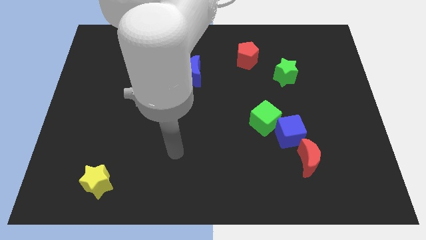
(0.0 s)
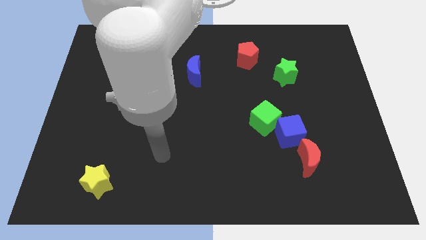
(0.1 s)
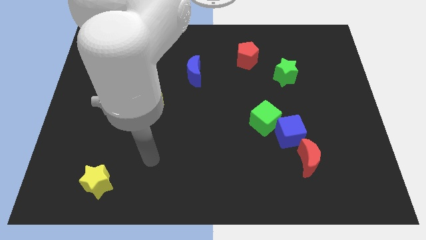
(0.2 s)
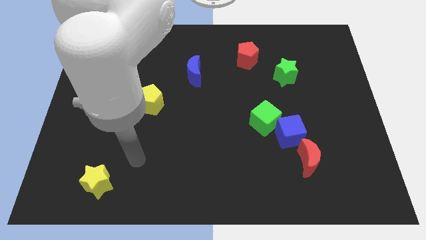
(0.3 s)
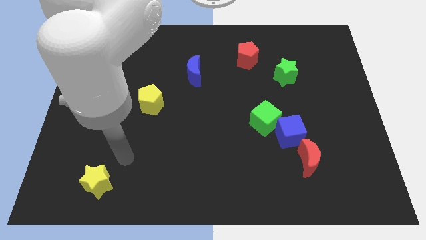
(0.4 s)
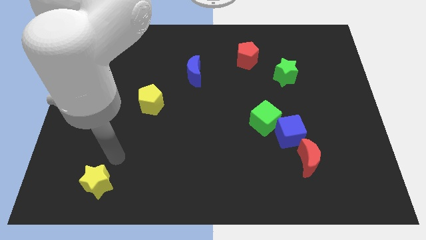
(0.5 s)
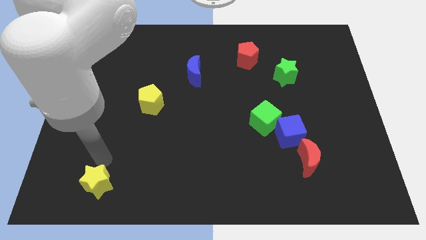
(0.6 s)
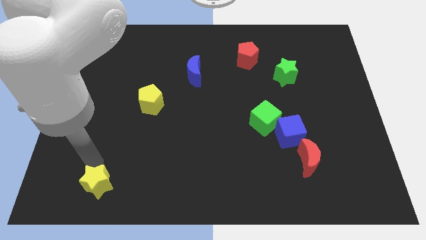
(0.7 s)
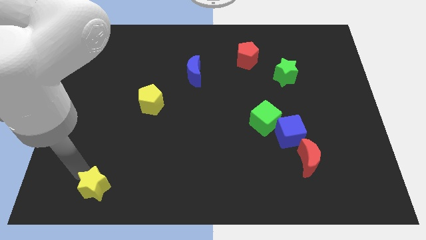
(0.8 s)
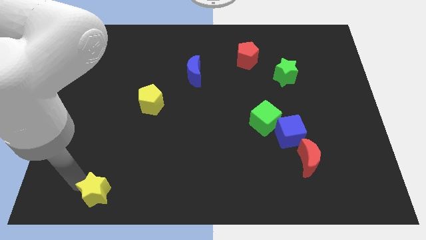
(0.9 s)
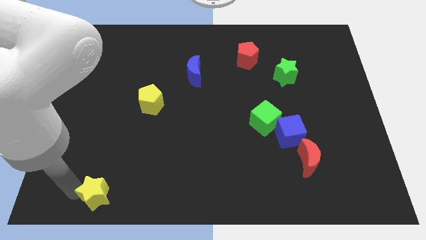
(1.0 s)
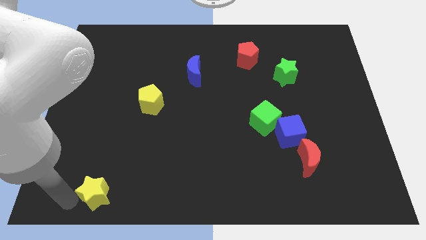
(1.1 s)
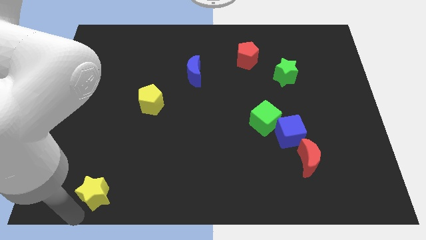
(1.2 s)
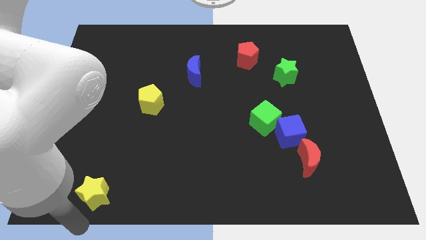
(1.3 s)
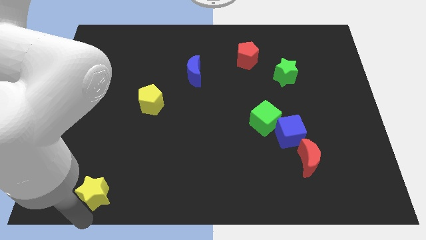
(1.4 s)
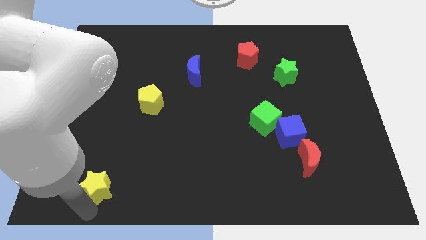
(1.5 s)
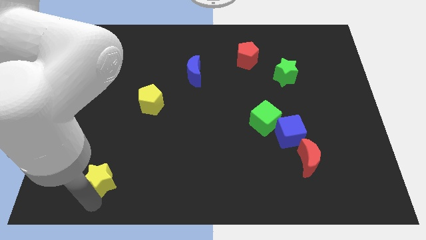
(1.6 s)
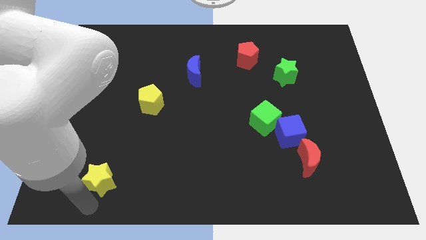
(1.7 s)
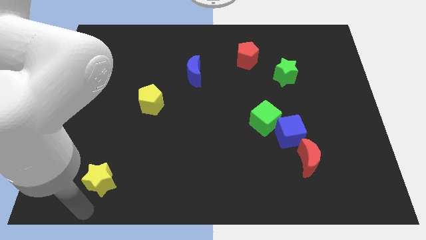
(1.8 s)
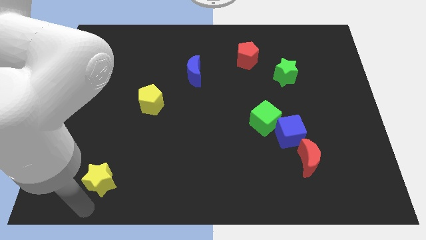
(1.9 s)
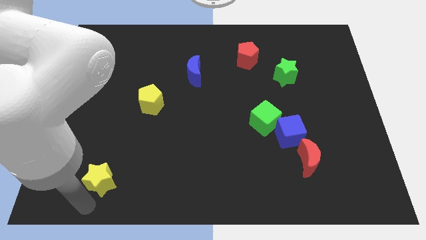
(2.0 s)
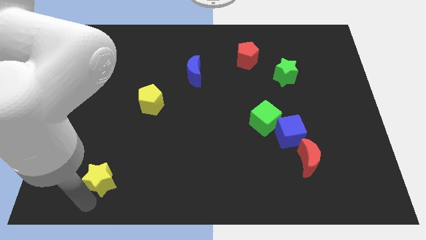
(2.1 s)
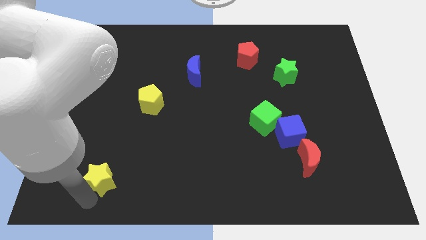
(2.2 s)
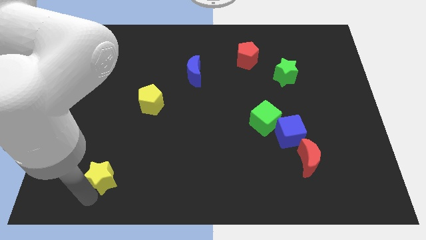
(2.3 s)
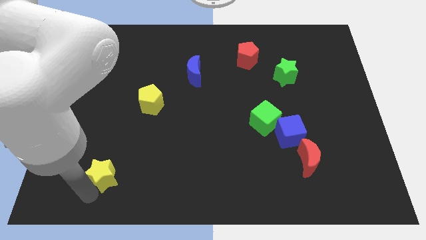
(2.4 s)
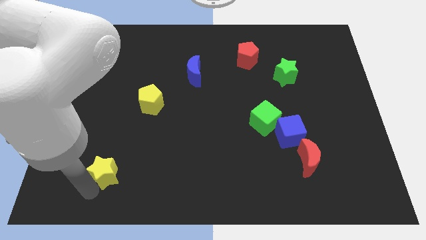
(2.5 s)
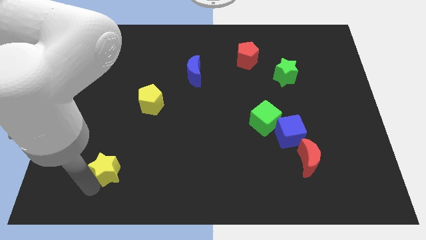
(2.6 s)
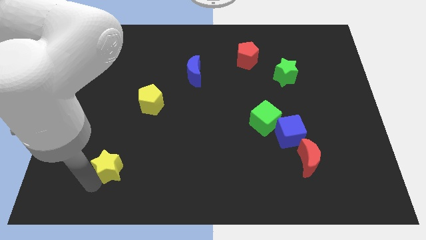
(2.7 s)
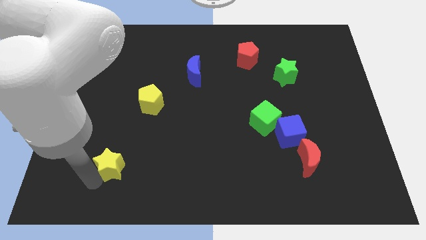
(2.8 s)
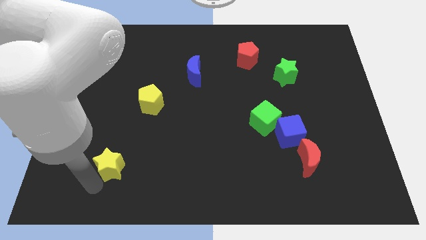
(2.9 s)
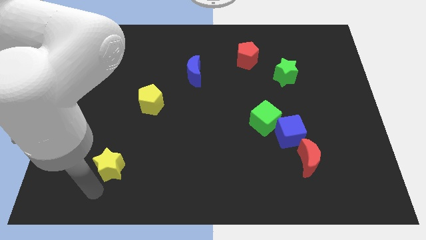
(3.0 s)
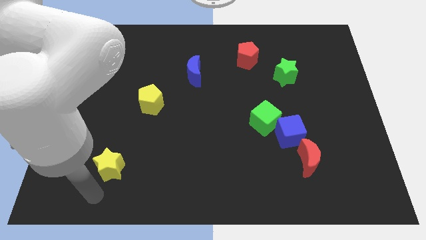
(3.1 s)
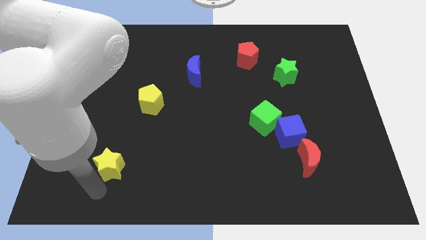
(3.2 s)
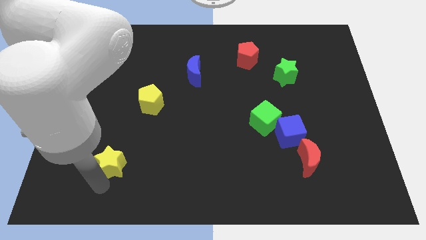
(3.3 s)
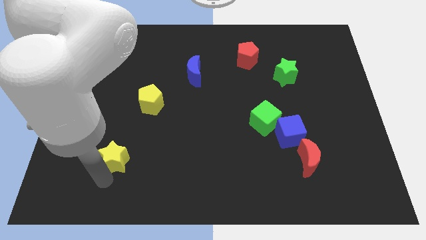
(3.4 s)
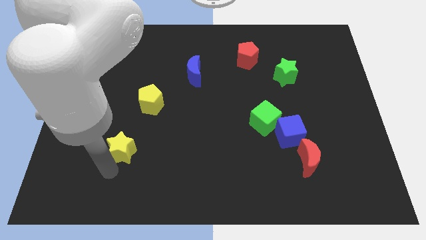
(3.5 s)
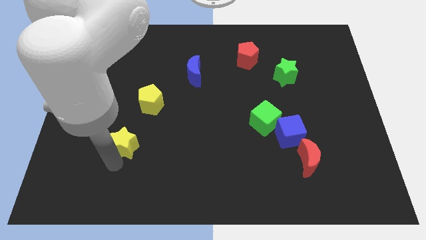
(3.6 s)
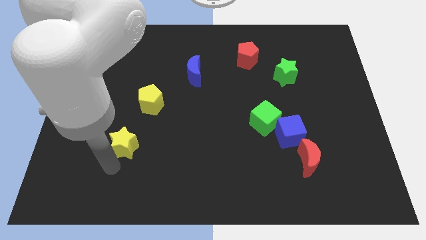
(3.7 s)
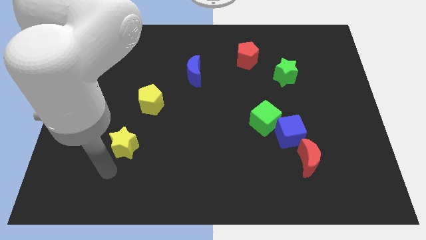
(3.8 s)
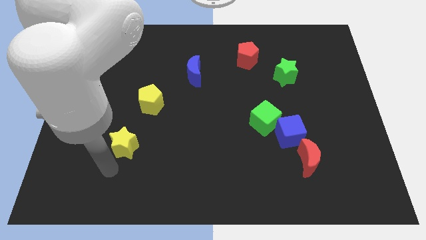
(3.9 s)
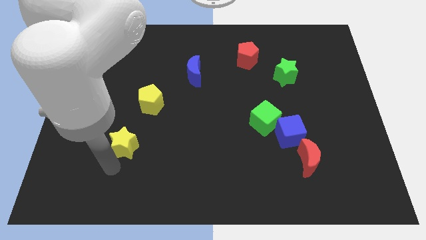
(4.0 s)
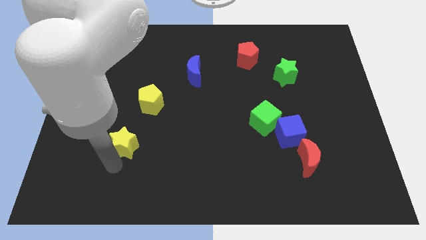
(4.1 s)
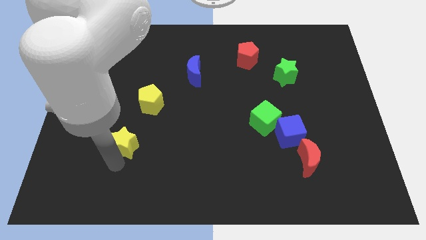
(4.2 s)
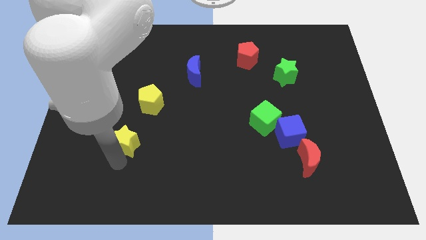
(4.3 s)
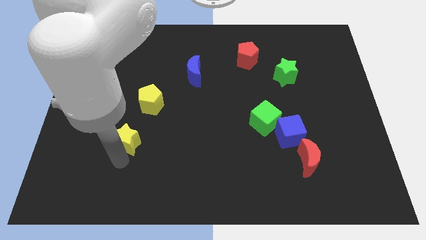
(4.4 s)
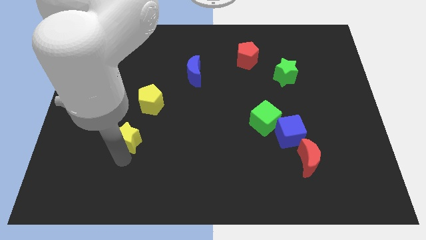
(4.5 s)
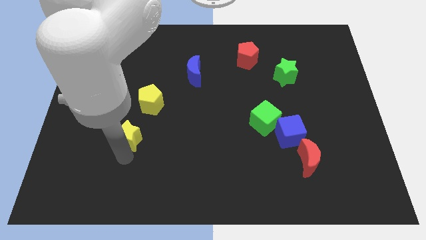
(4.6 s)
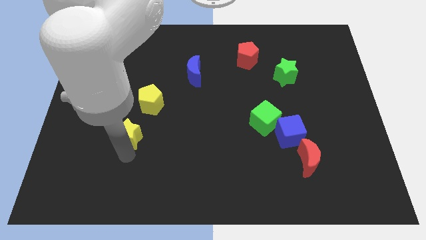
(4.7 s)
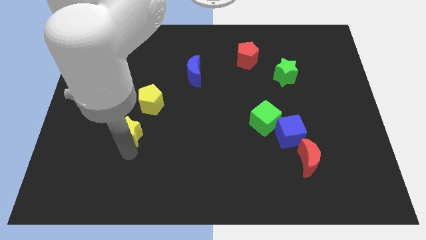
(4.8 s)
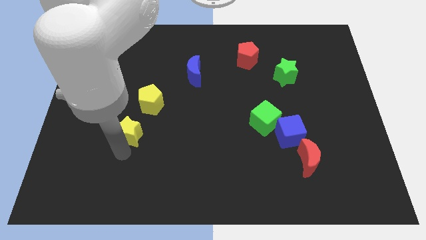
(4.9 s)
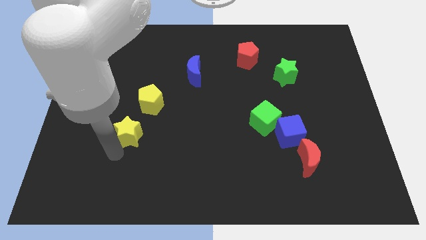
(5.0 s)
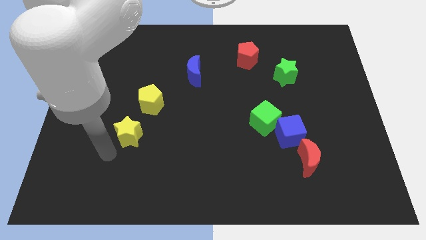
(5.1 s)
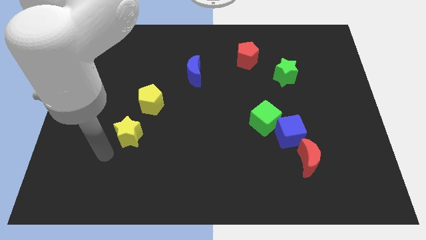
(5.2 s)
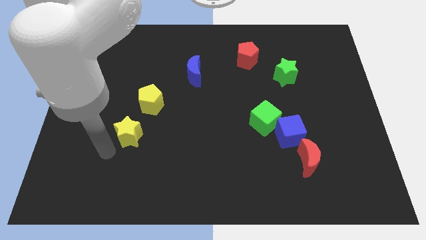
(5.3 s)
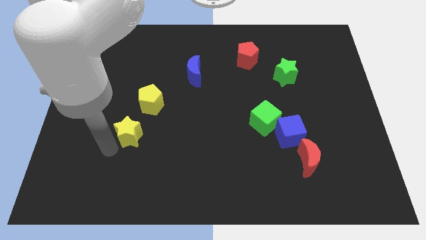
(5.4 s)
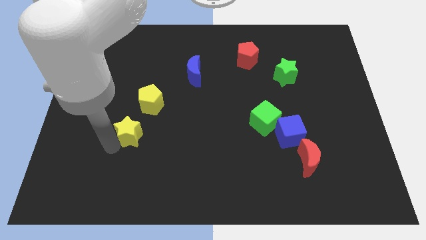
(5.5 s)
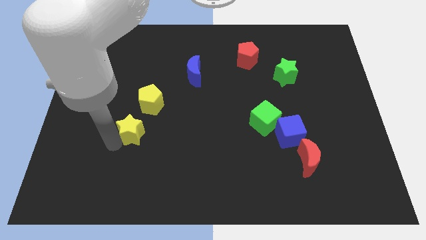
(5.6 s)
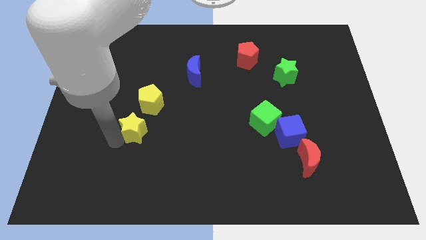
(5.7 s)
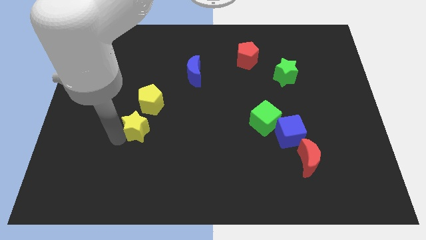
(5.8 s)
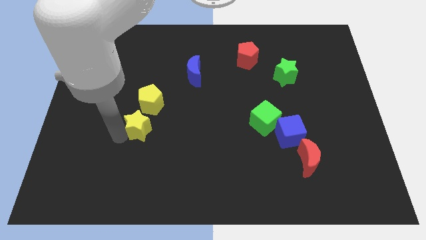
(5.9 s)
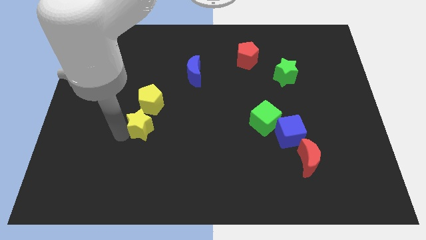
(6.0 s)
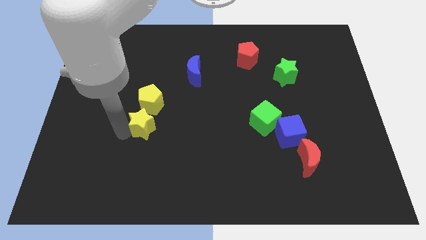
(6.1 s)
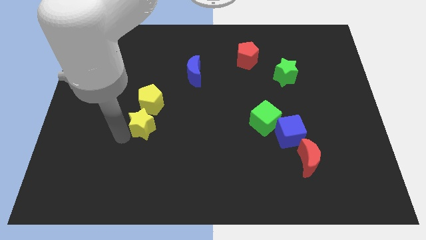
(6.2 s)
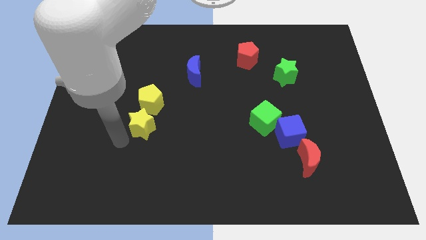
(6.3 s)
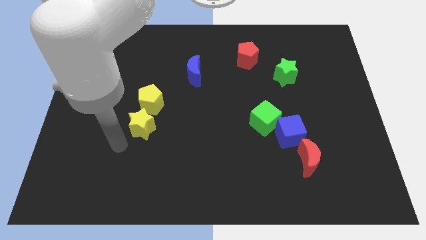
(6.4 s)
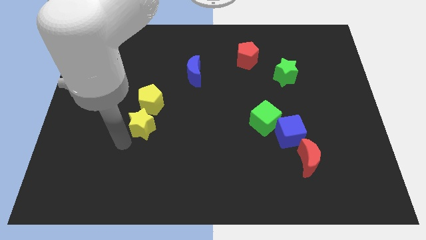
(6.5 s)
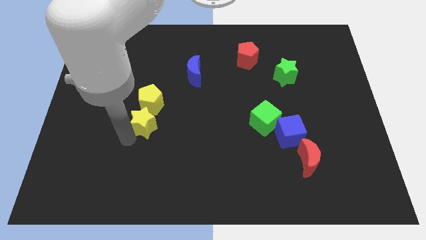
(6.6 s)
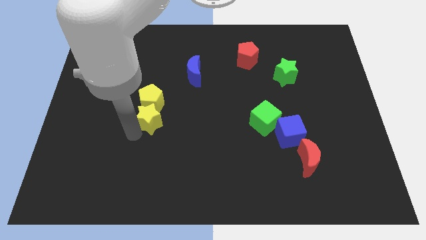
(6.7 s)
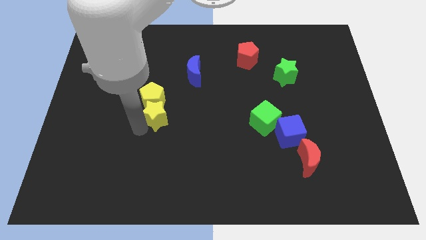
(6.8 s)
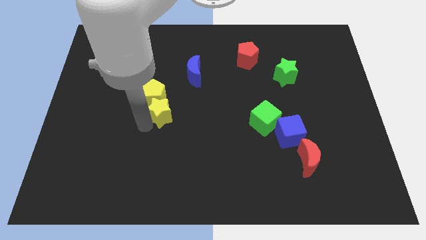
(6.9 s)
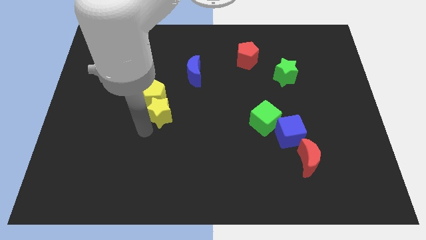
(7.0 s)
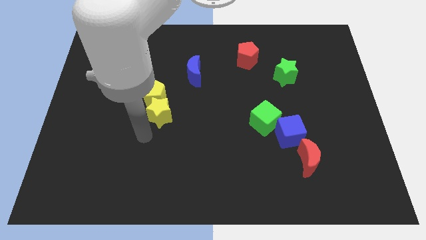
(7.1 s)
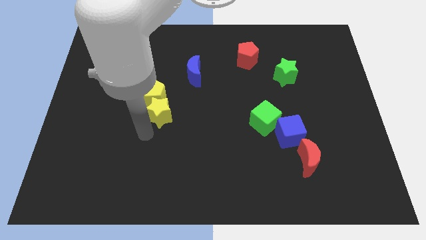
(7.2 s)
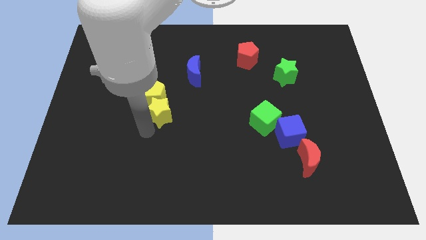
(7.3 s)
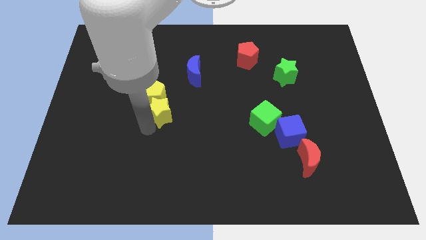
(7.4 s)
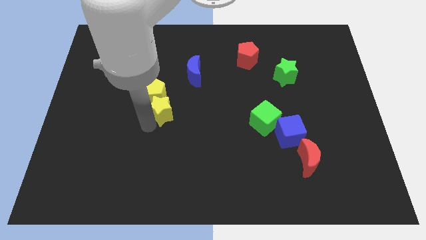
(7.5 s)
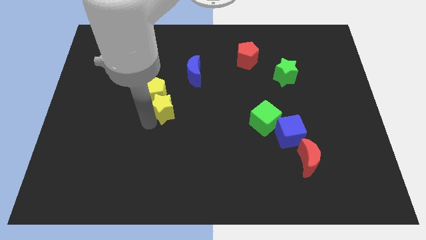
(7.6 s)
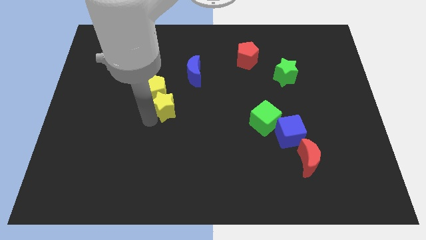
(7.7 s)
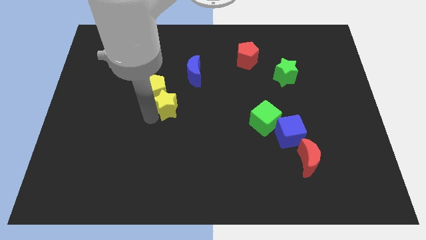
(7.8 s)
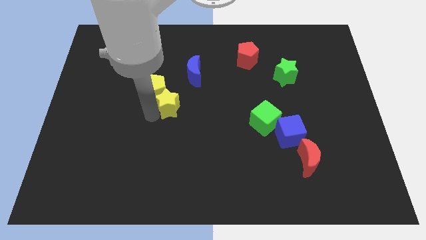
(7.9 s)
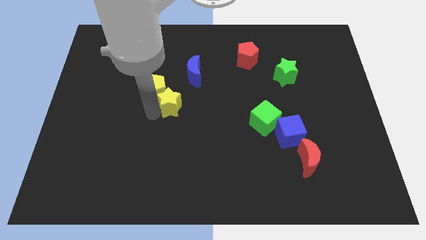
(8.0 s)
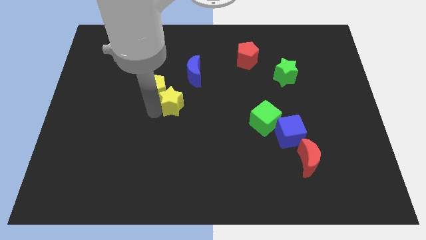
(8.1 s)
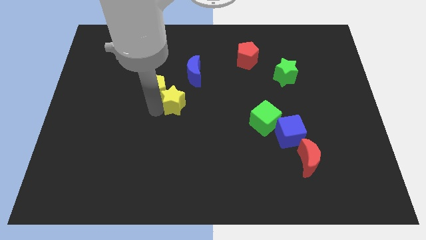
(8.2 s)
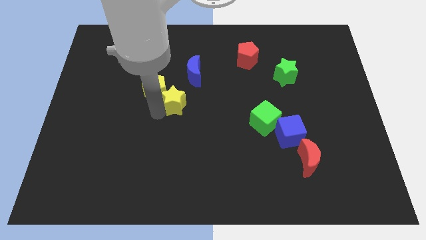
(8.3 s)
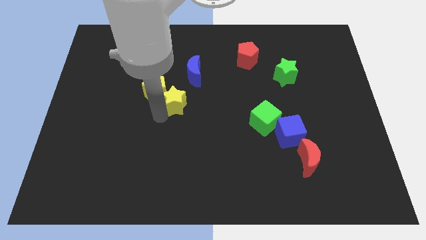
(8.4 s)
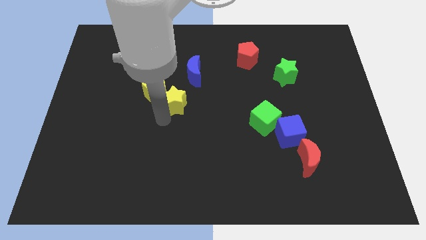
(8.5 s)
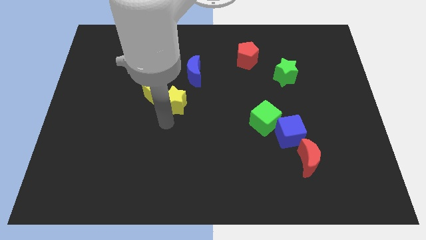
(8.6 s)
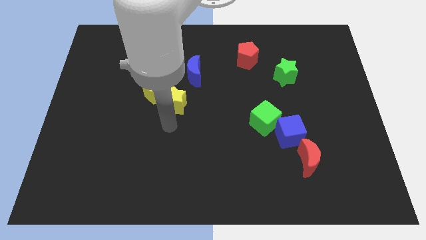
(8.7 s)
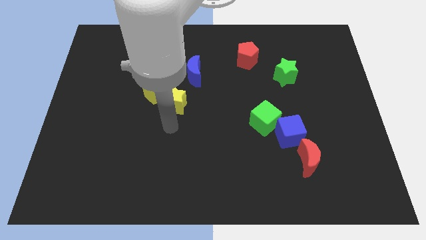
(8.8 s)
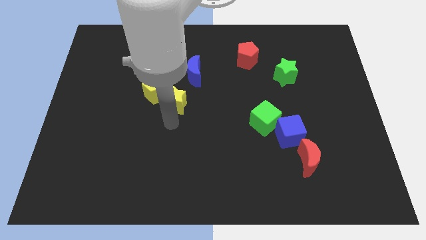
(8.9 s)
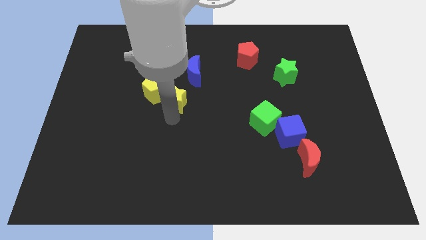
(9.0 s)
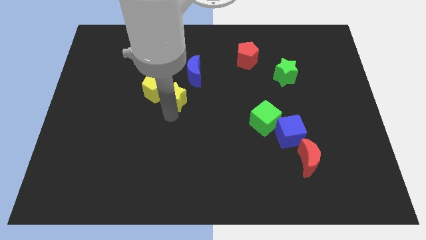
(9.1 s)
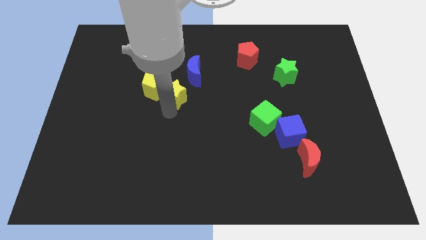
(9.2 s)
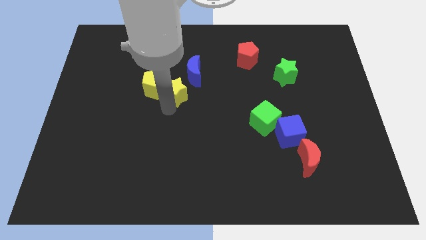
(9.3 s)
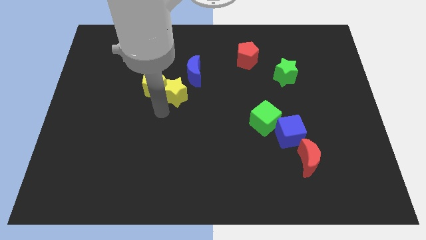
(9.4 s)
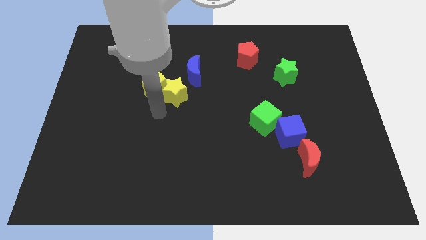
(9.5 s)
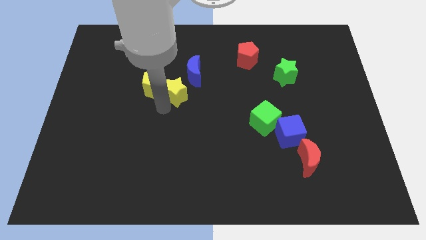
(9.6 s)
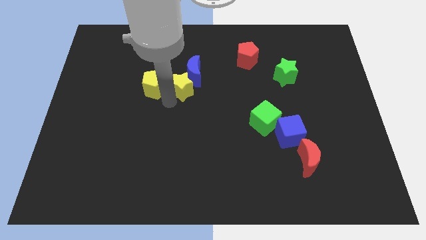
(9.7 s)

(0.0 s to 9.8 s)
move the yellow star to the blue moon
